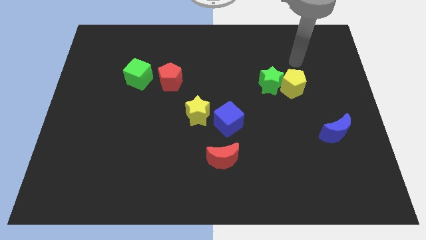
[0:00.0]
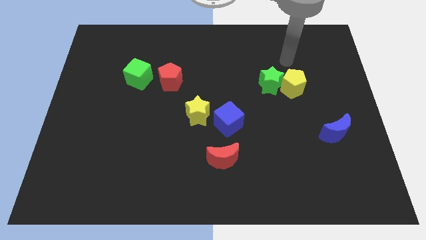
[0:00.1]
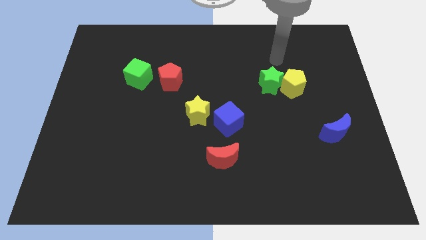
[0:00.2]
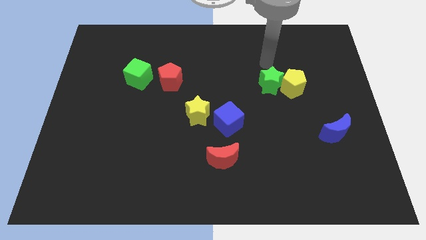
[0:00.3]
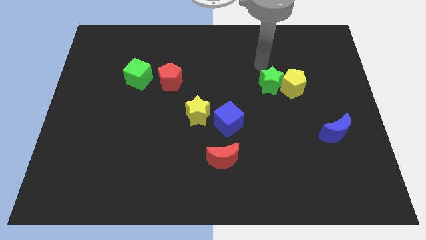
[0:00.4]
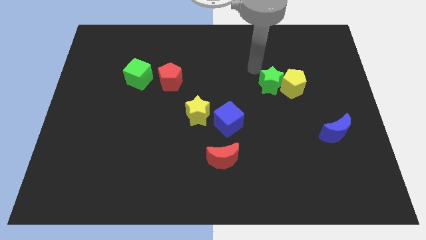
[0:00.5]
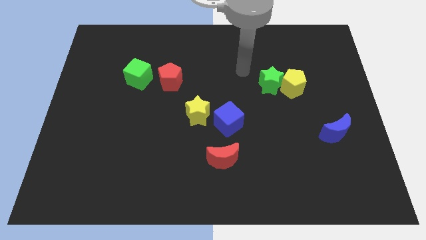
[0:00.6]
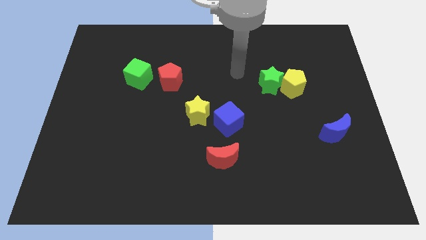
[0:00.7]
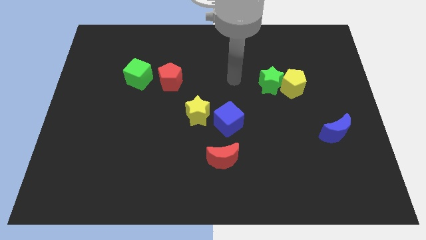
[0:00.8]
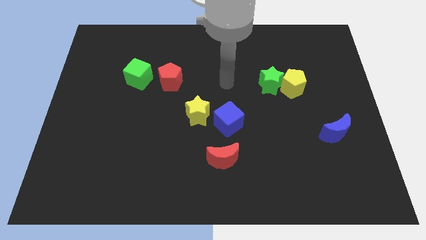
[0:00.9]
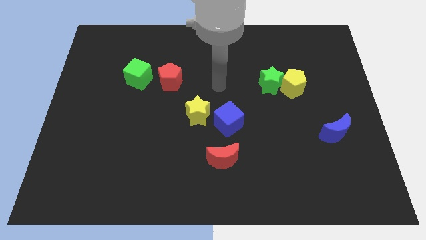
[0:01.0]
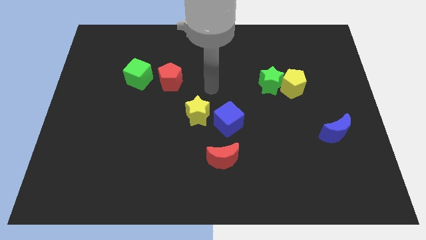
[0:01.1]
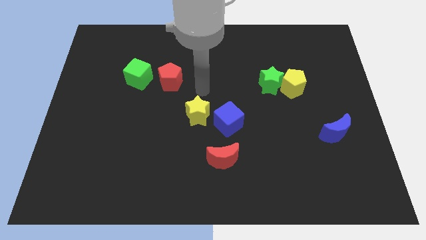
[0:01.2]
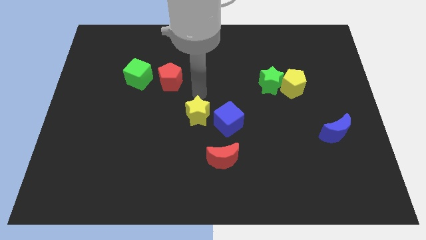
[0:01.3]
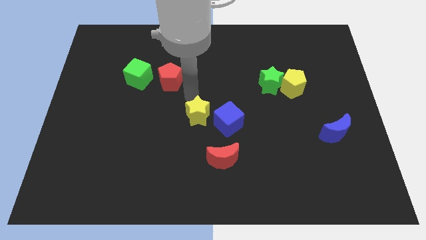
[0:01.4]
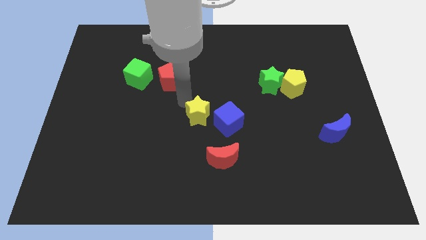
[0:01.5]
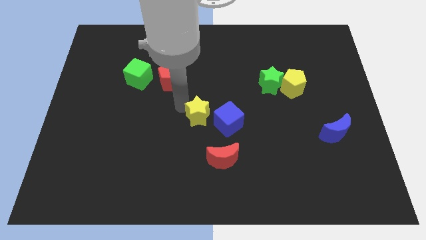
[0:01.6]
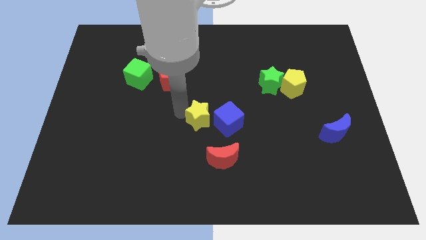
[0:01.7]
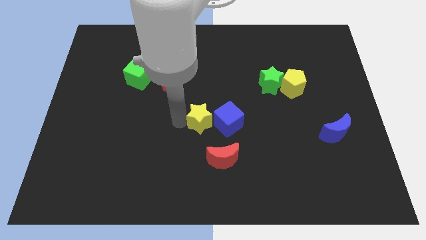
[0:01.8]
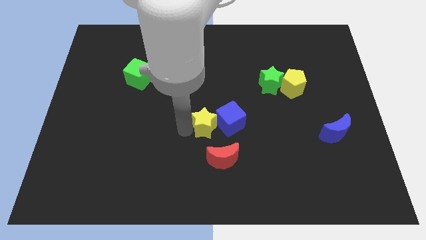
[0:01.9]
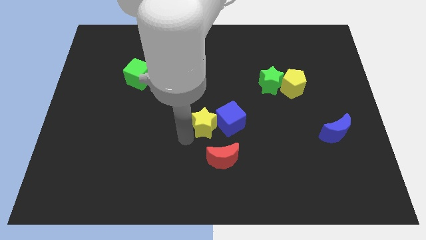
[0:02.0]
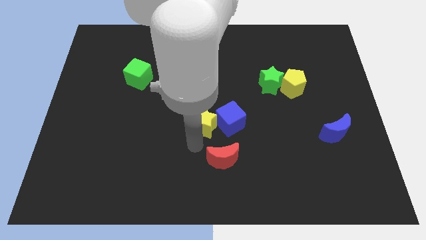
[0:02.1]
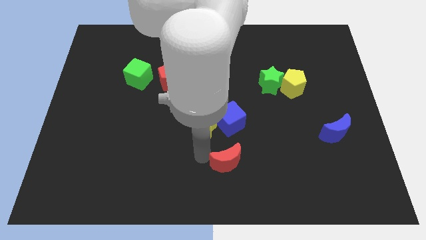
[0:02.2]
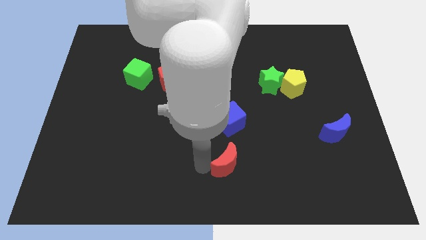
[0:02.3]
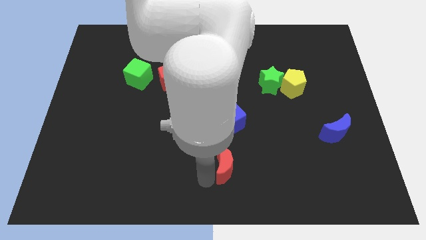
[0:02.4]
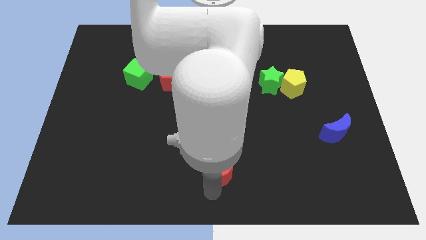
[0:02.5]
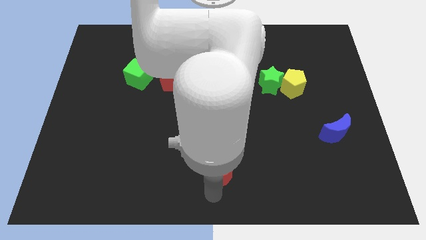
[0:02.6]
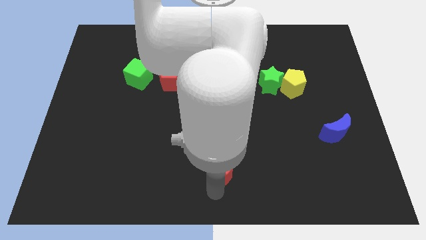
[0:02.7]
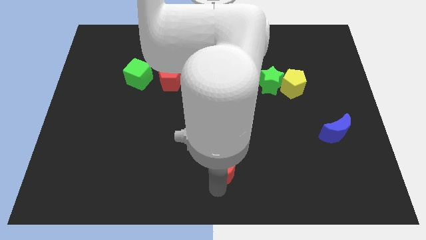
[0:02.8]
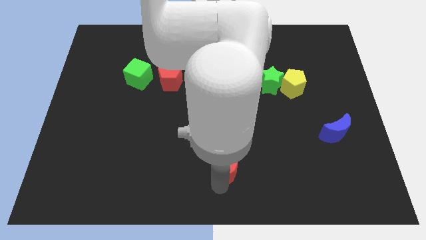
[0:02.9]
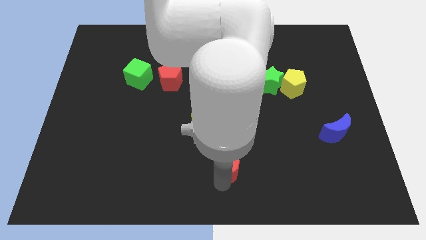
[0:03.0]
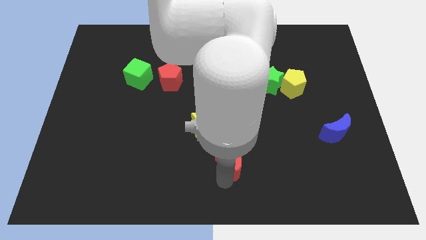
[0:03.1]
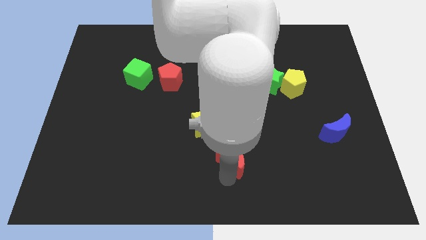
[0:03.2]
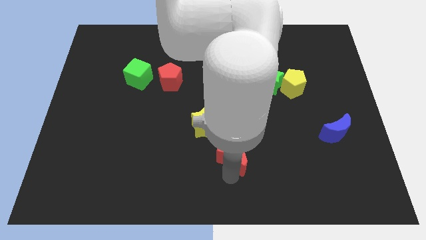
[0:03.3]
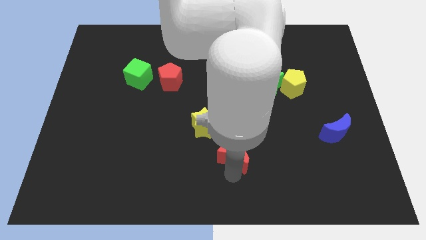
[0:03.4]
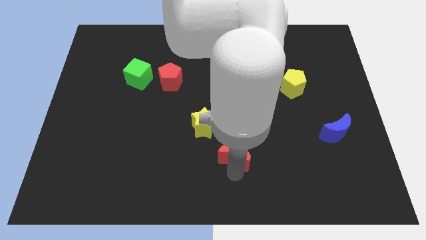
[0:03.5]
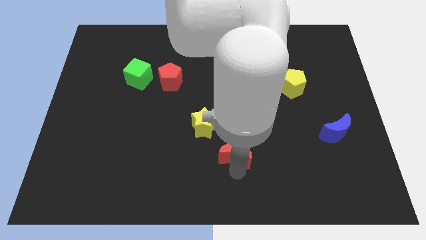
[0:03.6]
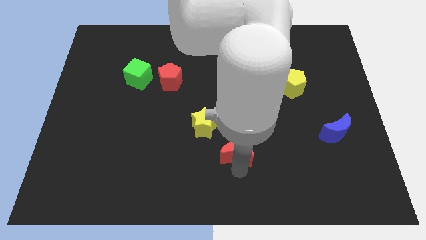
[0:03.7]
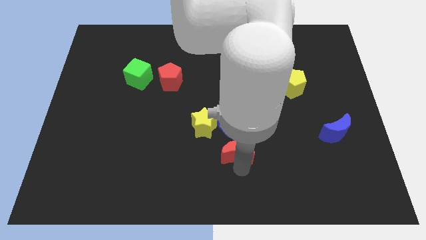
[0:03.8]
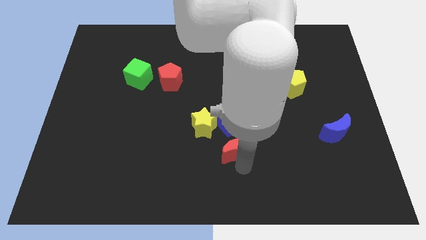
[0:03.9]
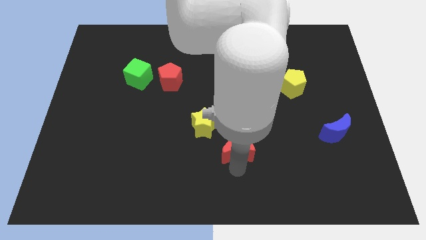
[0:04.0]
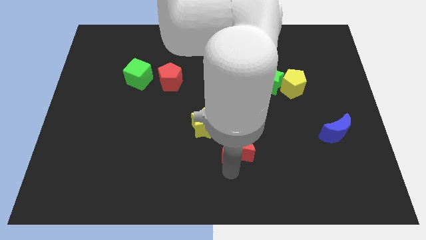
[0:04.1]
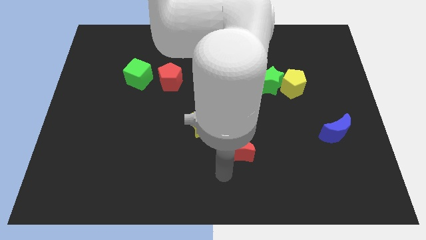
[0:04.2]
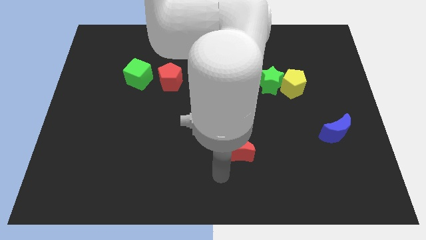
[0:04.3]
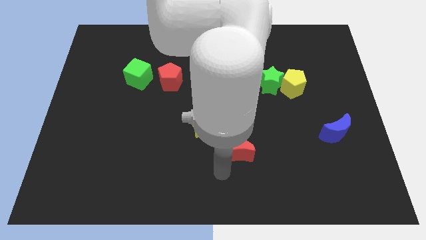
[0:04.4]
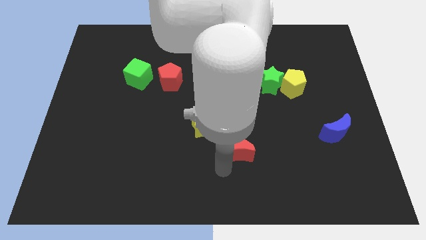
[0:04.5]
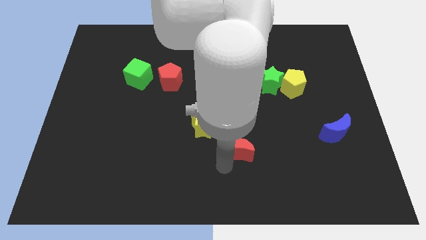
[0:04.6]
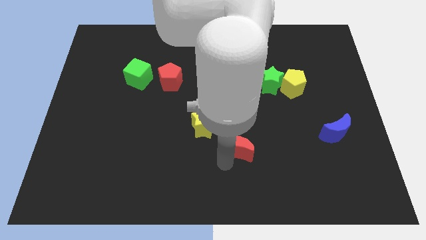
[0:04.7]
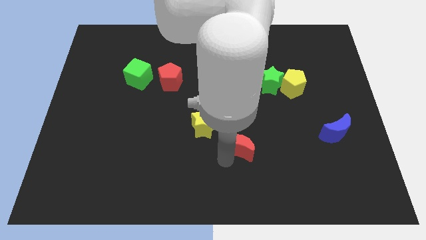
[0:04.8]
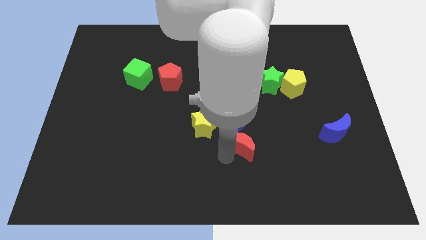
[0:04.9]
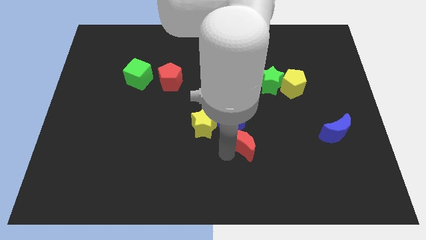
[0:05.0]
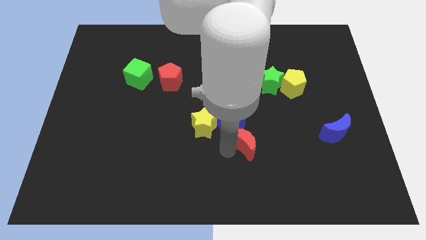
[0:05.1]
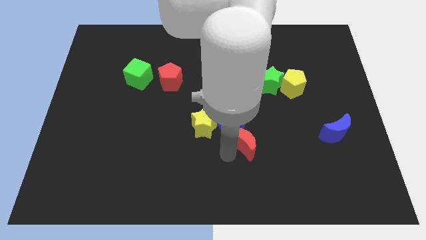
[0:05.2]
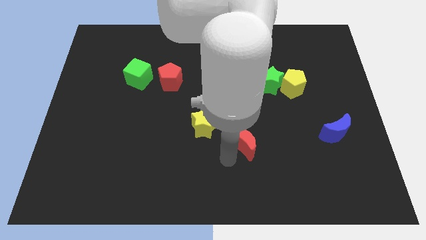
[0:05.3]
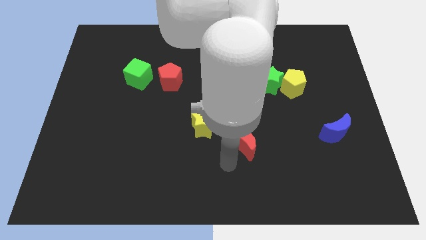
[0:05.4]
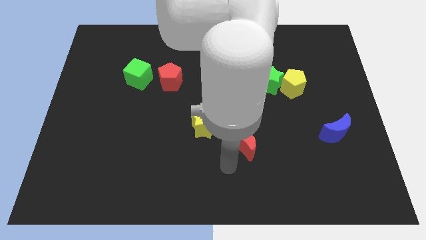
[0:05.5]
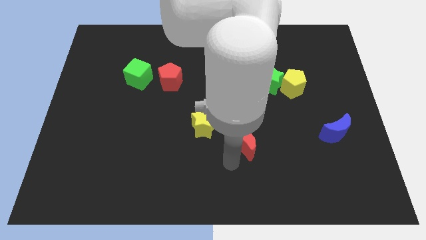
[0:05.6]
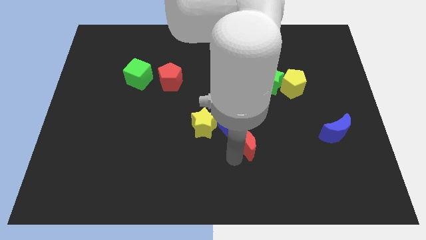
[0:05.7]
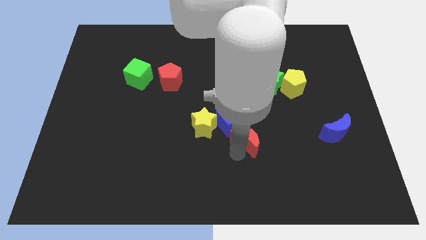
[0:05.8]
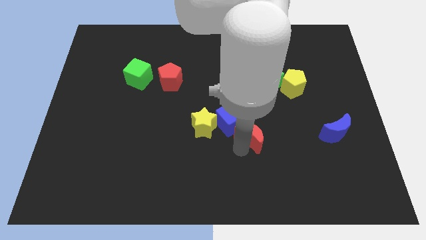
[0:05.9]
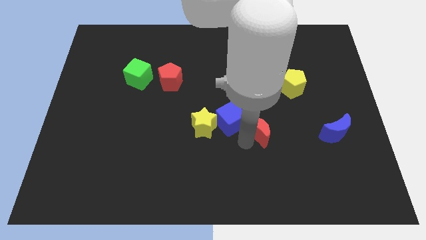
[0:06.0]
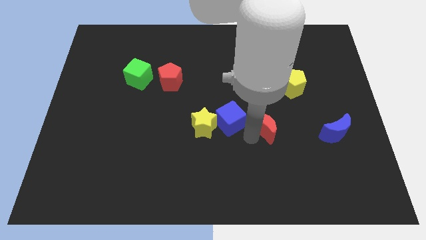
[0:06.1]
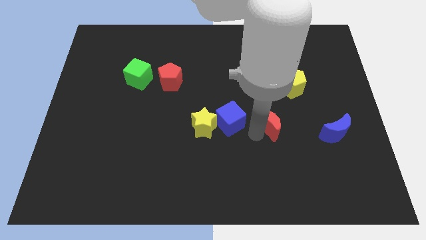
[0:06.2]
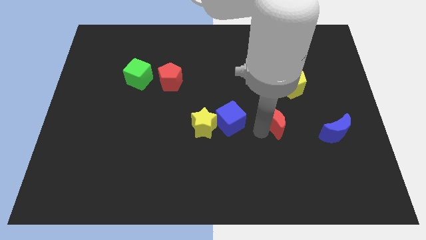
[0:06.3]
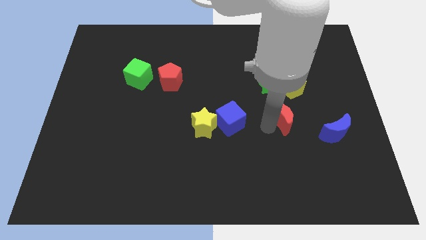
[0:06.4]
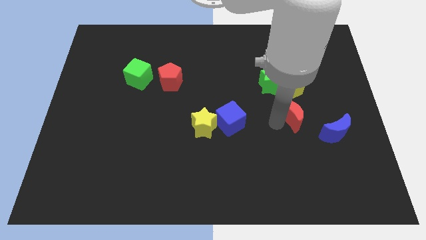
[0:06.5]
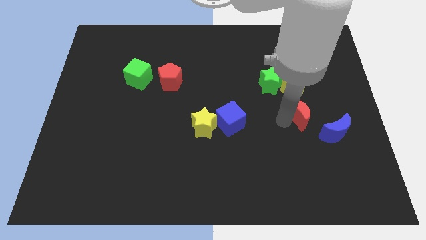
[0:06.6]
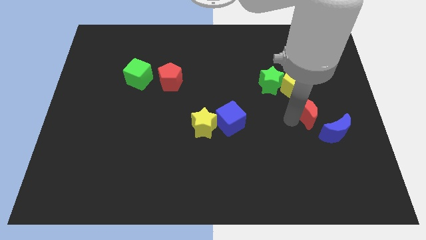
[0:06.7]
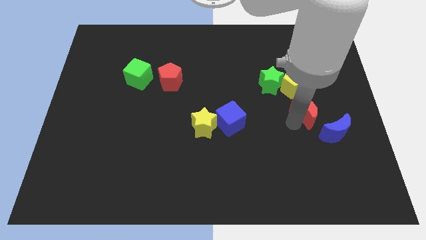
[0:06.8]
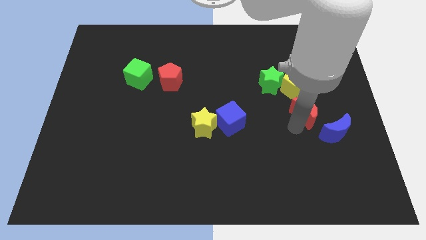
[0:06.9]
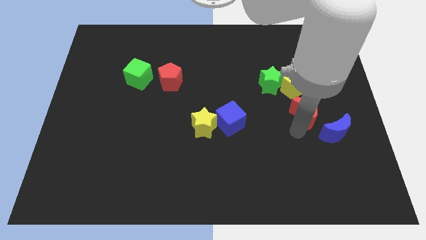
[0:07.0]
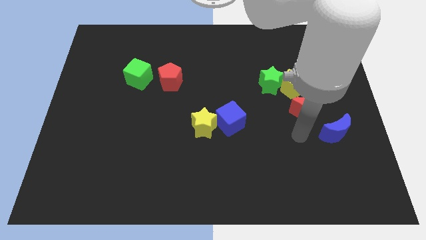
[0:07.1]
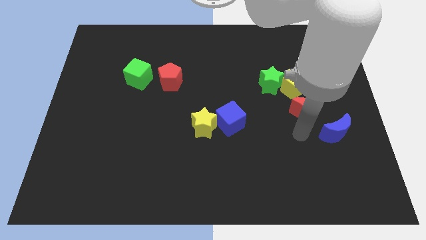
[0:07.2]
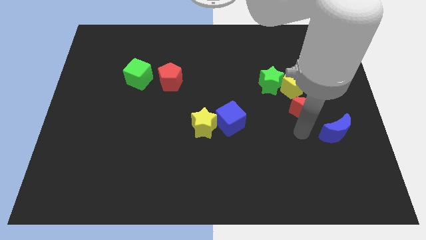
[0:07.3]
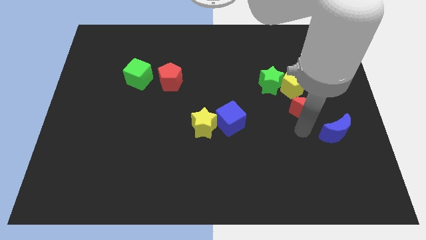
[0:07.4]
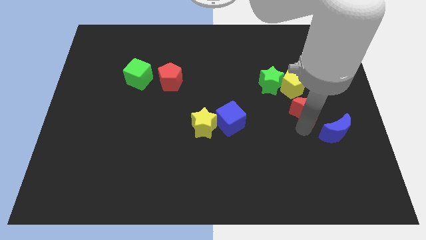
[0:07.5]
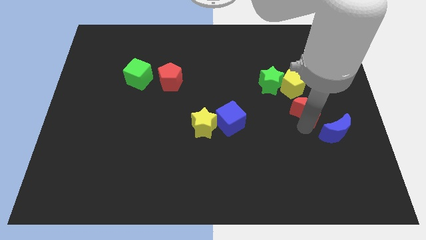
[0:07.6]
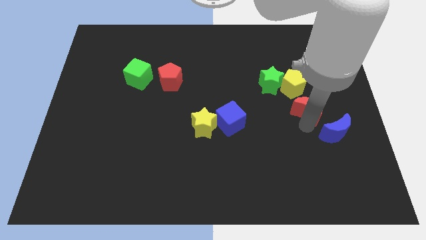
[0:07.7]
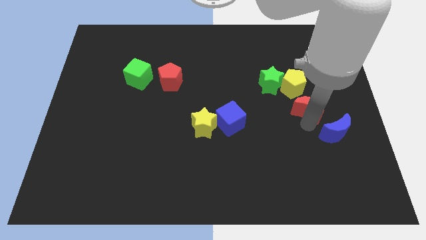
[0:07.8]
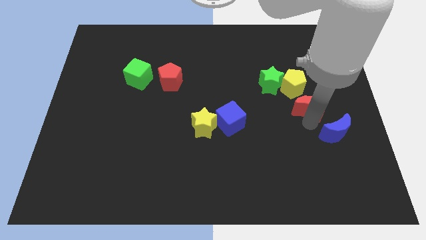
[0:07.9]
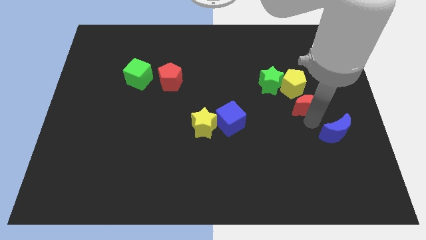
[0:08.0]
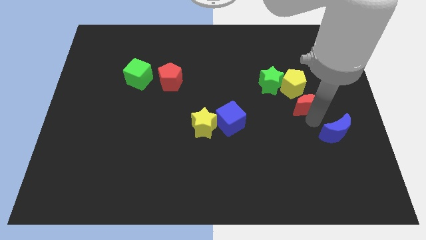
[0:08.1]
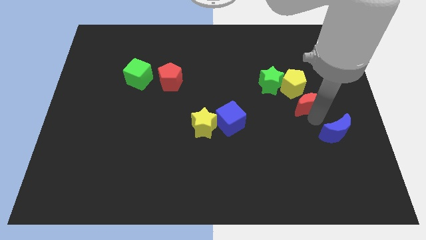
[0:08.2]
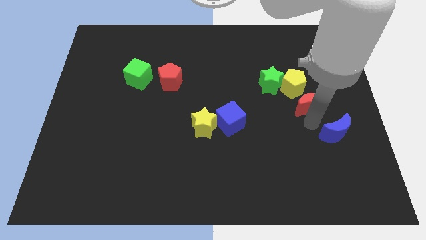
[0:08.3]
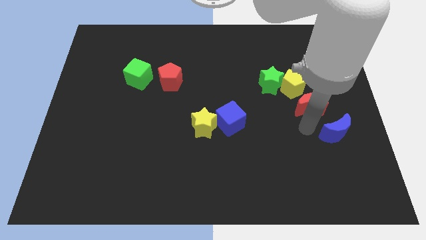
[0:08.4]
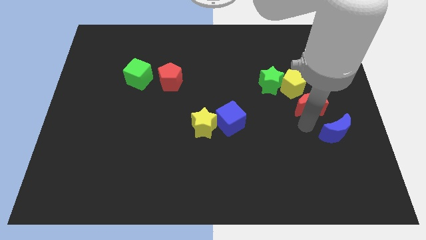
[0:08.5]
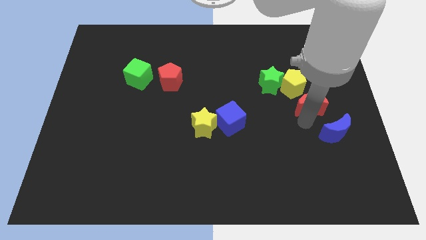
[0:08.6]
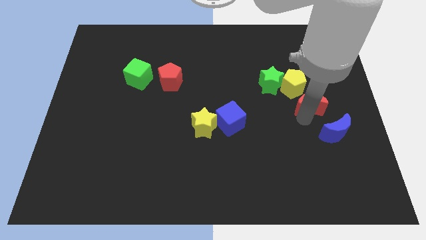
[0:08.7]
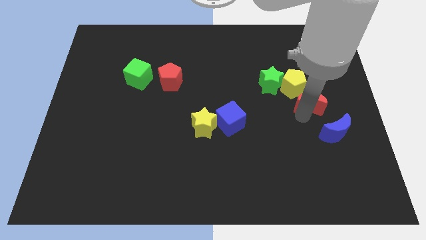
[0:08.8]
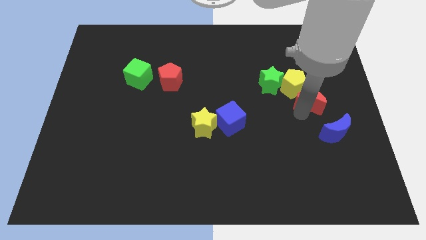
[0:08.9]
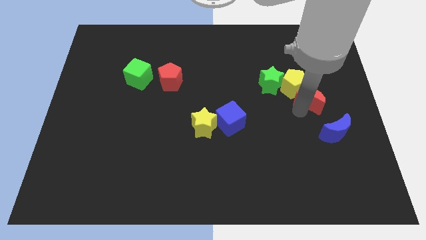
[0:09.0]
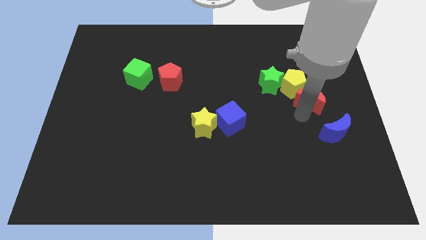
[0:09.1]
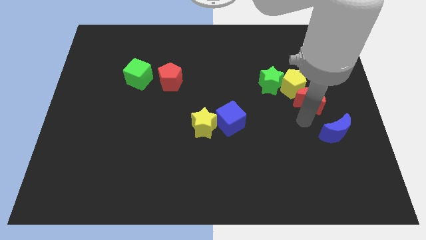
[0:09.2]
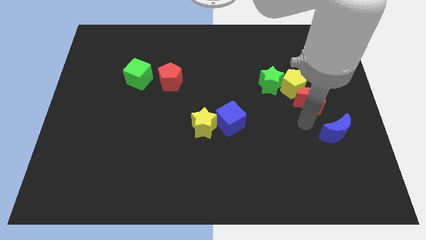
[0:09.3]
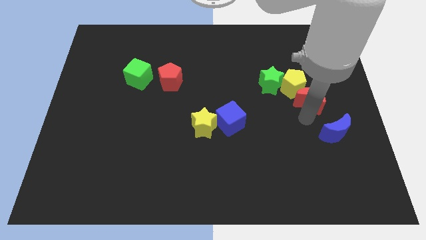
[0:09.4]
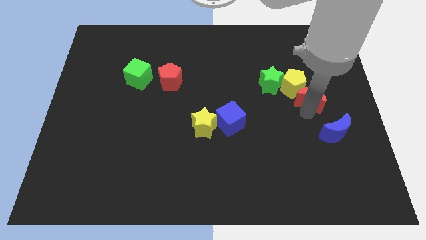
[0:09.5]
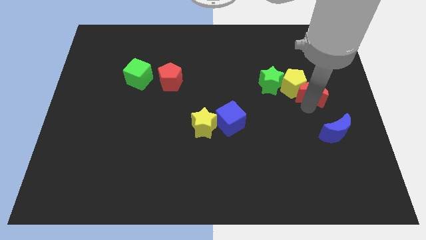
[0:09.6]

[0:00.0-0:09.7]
push the red moon to the right of the green star
